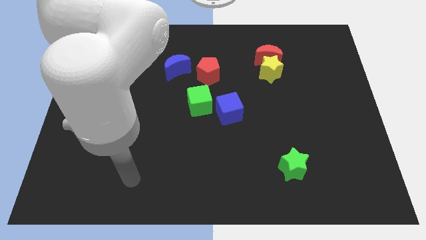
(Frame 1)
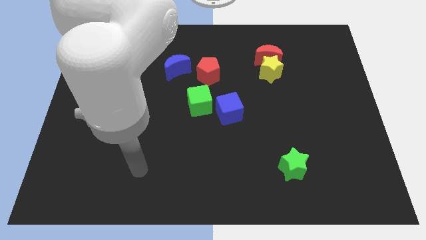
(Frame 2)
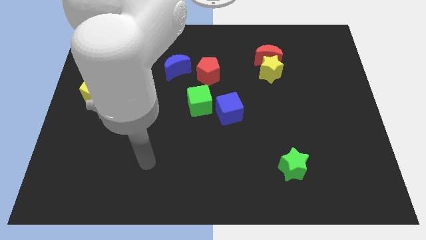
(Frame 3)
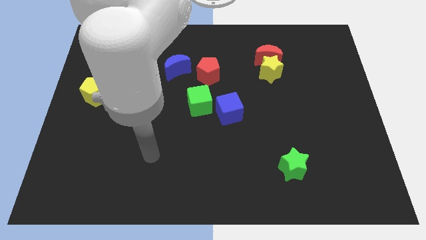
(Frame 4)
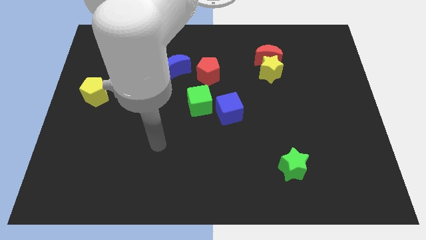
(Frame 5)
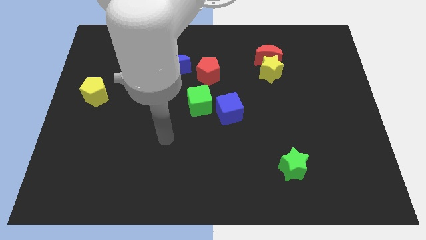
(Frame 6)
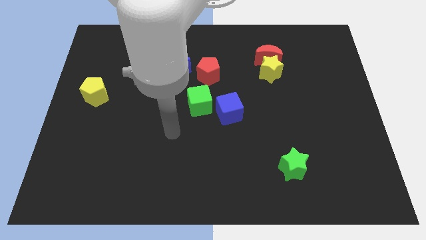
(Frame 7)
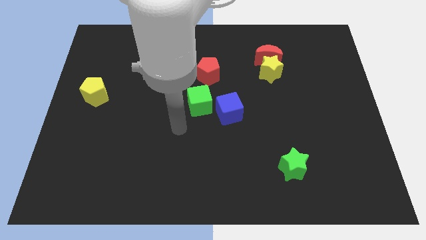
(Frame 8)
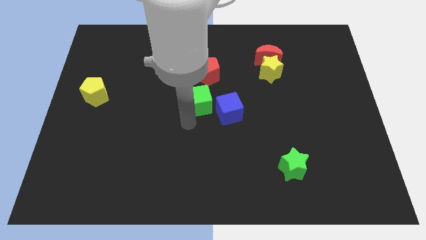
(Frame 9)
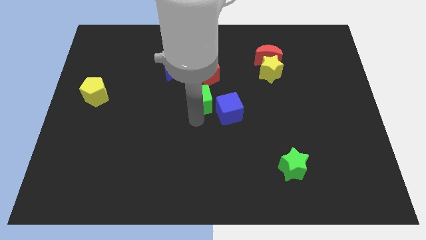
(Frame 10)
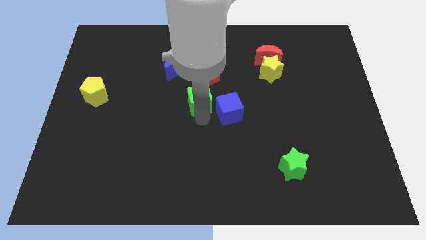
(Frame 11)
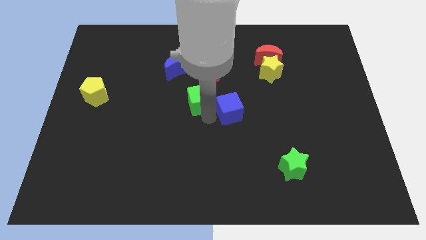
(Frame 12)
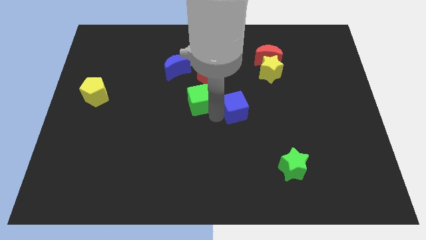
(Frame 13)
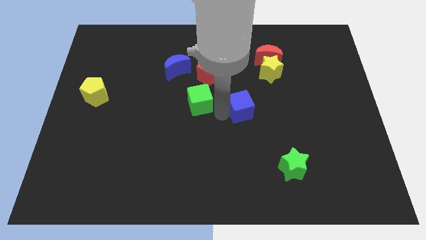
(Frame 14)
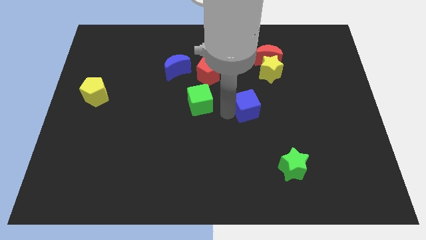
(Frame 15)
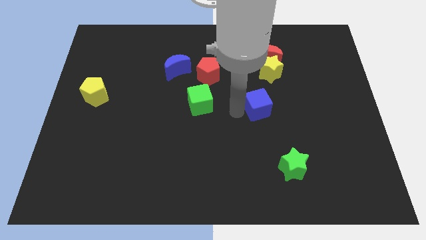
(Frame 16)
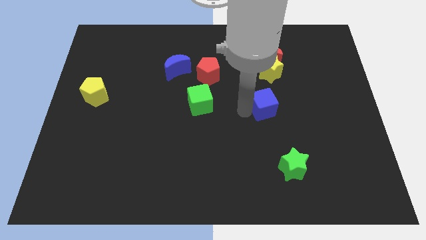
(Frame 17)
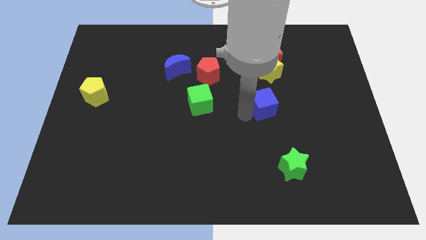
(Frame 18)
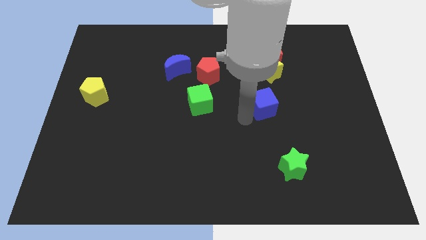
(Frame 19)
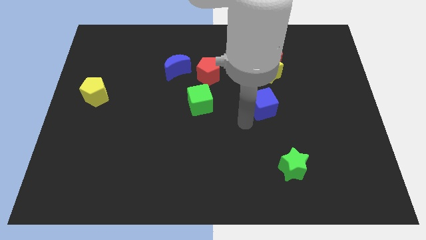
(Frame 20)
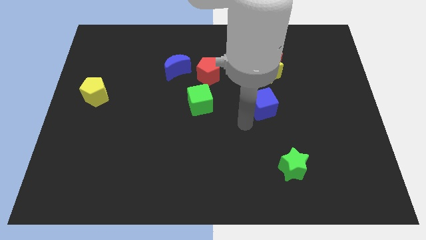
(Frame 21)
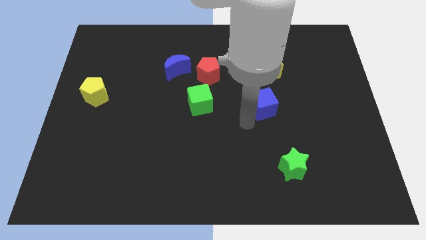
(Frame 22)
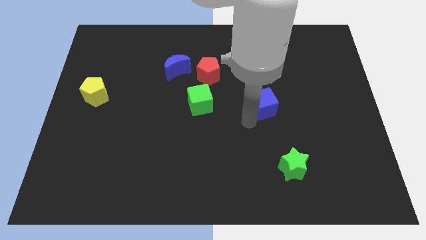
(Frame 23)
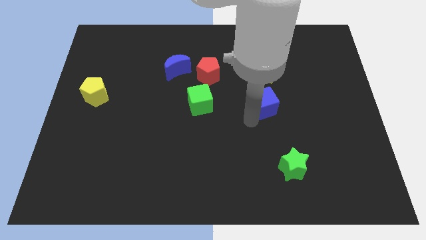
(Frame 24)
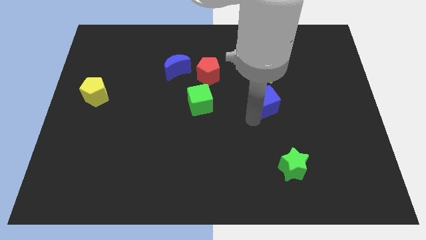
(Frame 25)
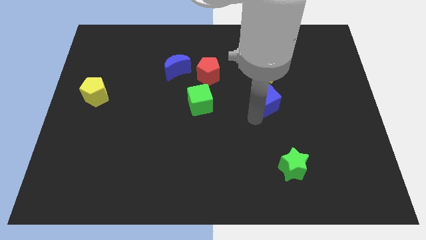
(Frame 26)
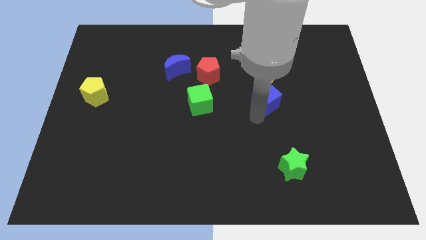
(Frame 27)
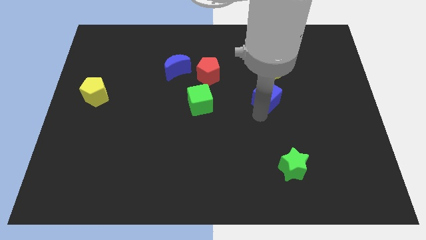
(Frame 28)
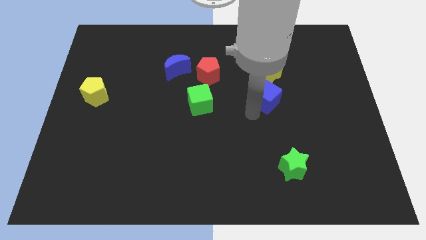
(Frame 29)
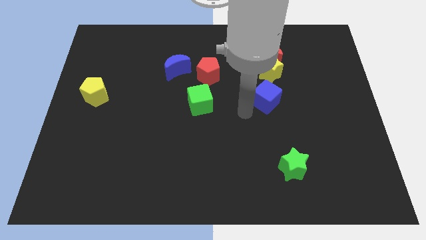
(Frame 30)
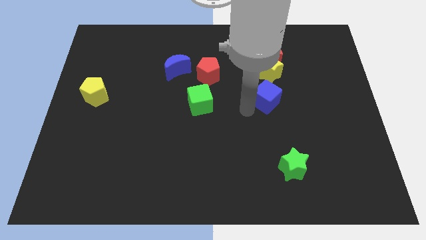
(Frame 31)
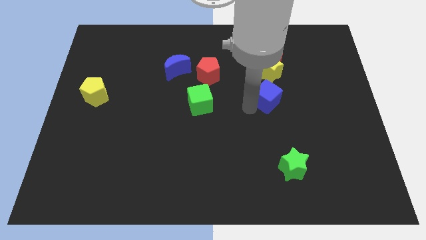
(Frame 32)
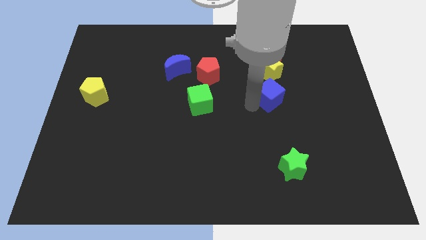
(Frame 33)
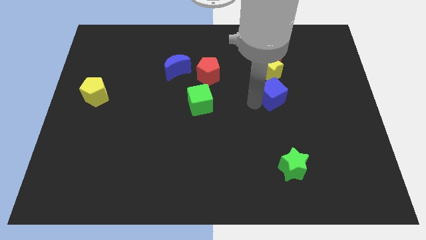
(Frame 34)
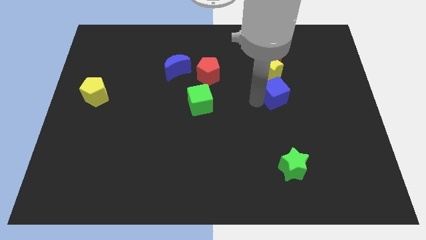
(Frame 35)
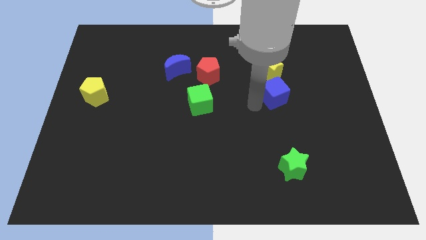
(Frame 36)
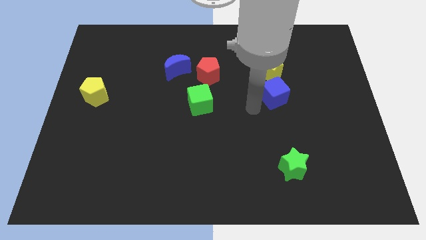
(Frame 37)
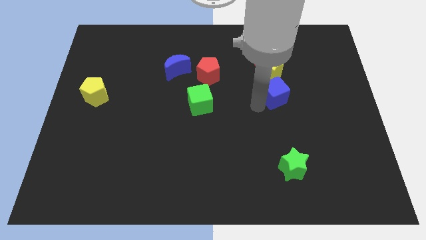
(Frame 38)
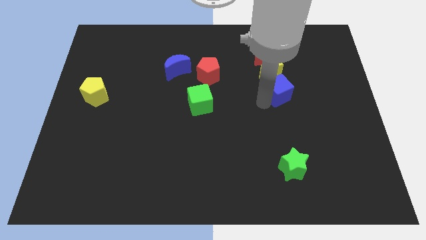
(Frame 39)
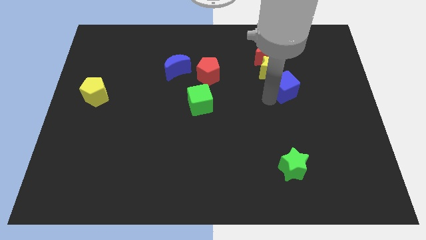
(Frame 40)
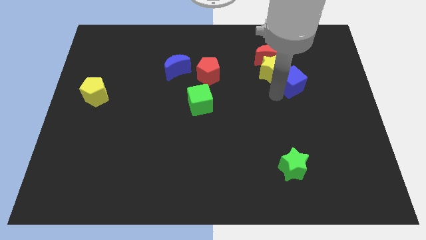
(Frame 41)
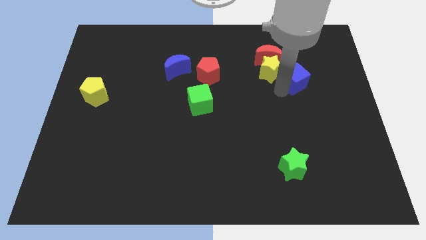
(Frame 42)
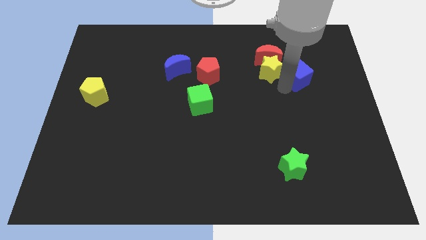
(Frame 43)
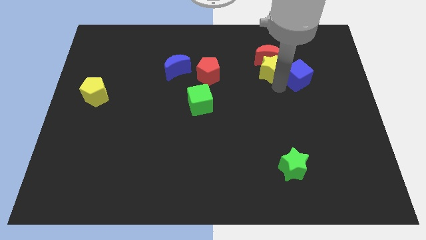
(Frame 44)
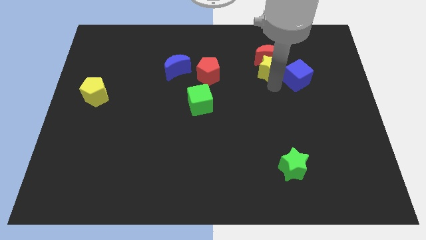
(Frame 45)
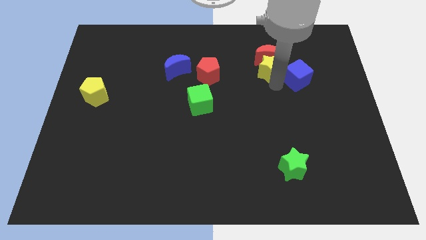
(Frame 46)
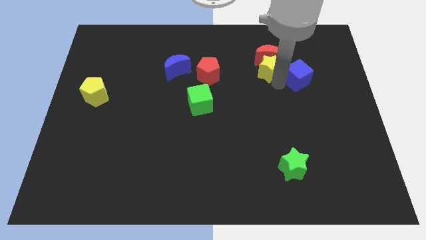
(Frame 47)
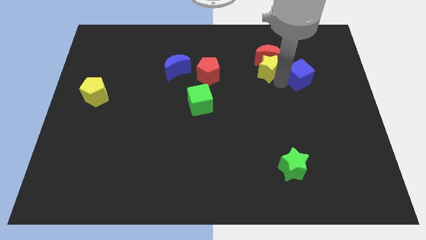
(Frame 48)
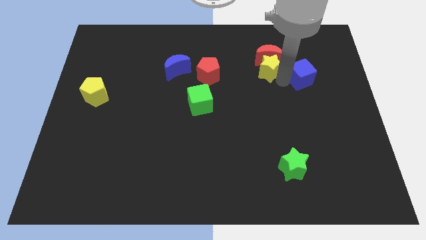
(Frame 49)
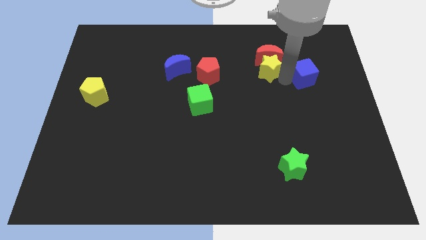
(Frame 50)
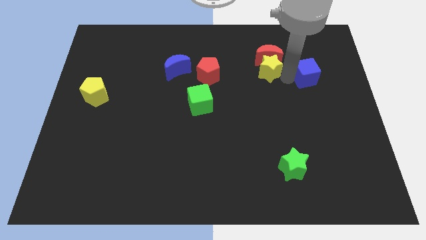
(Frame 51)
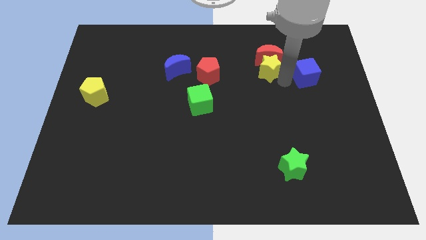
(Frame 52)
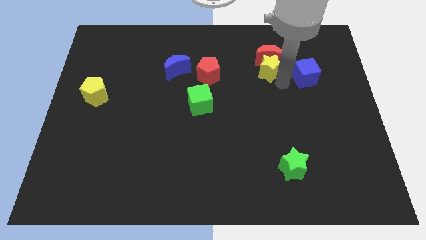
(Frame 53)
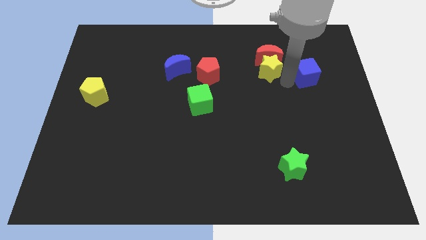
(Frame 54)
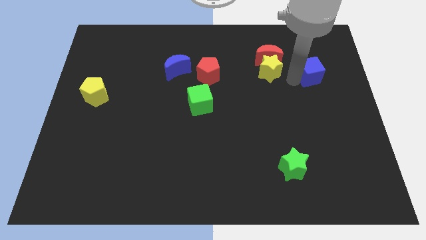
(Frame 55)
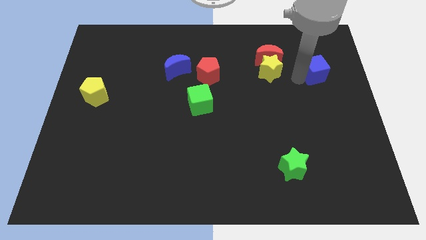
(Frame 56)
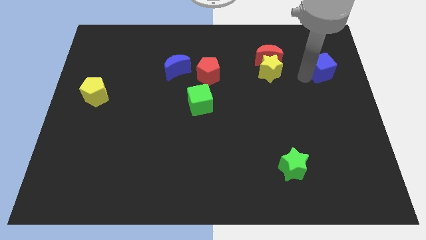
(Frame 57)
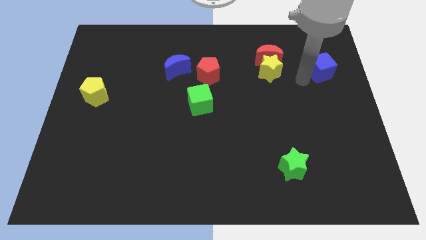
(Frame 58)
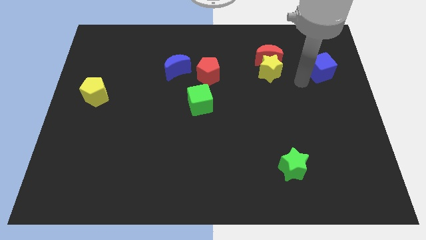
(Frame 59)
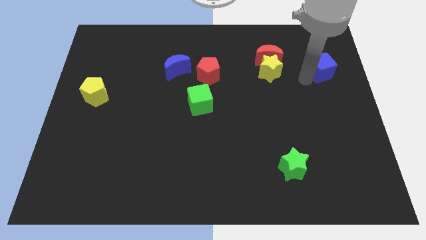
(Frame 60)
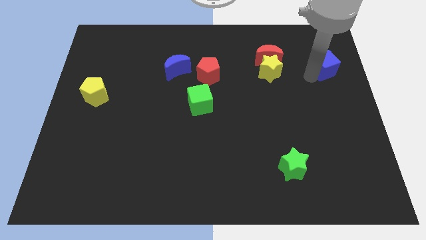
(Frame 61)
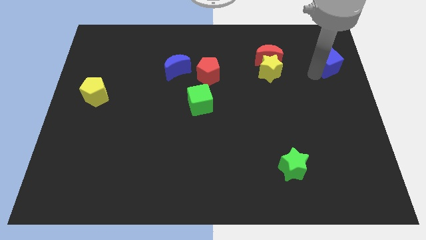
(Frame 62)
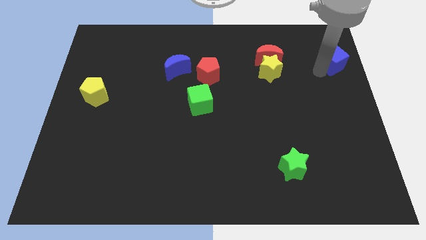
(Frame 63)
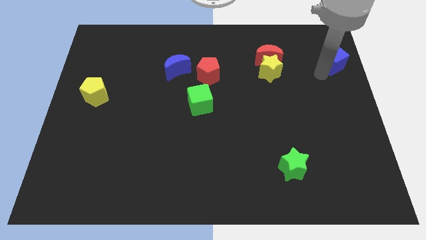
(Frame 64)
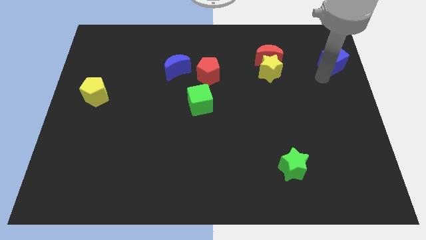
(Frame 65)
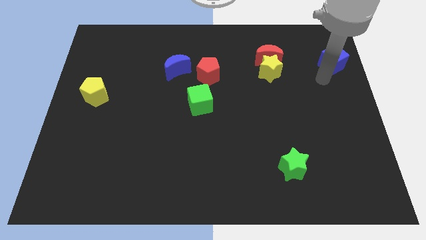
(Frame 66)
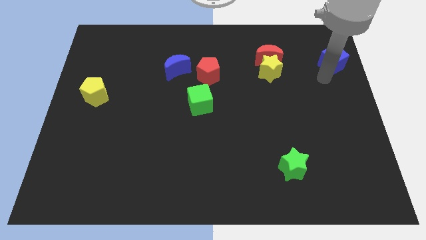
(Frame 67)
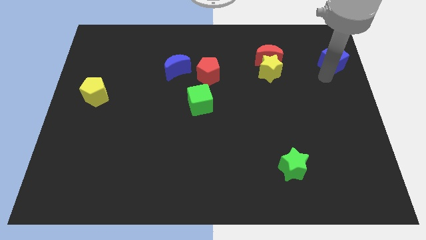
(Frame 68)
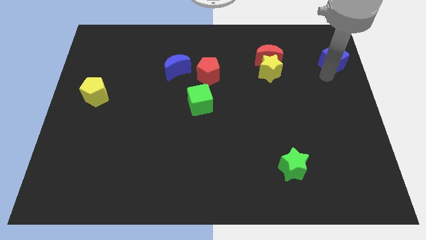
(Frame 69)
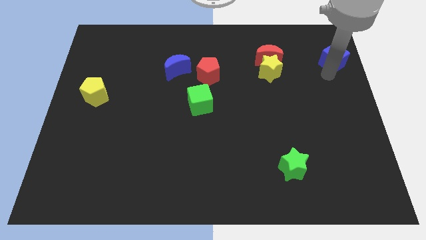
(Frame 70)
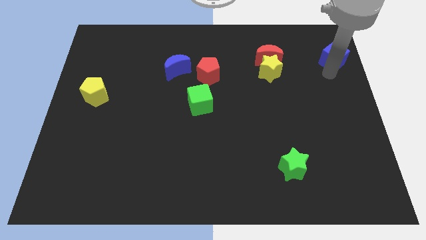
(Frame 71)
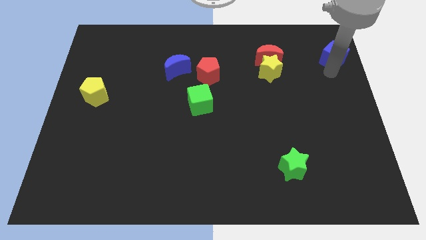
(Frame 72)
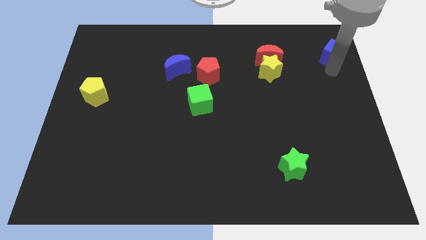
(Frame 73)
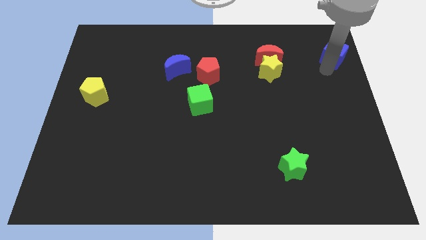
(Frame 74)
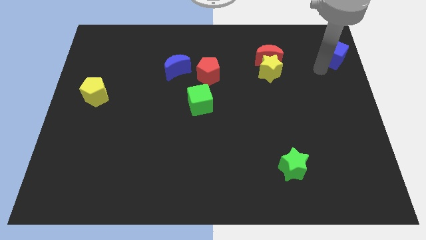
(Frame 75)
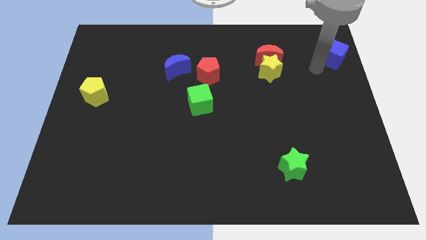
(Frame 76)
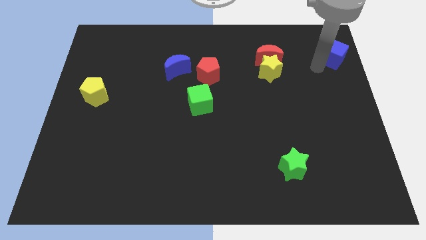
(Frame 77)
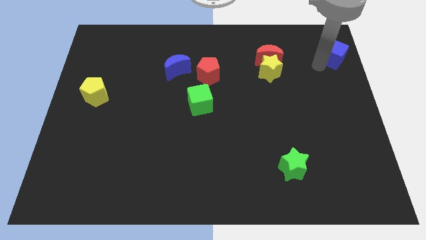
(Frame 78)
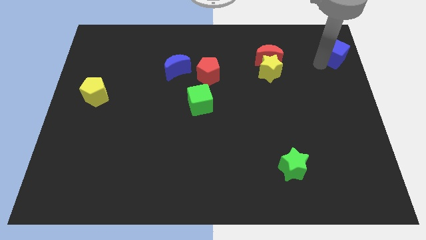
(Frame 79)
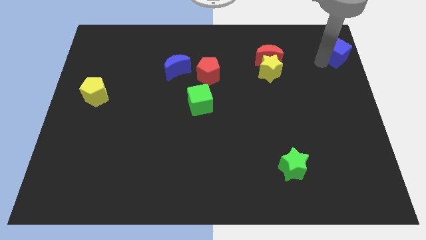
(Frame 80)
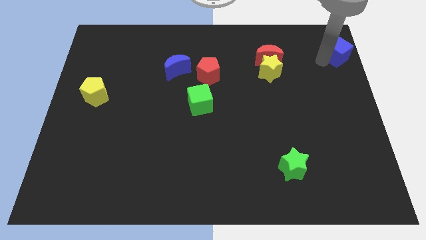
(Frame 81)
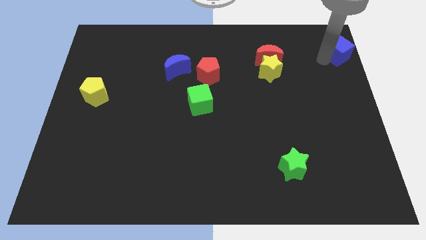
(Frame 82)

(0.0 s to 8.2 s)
move the blue cube to the top right of the board

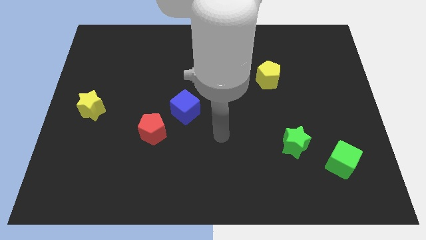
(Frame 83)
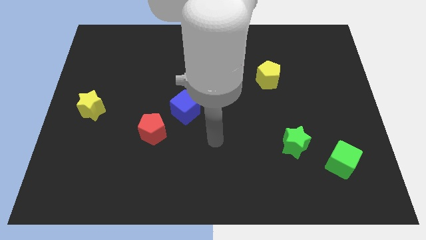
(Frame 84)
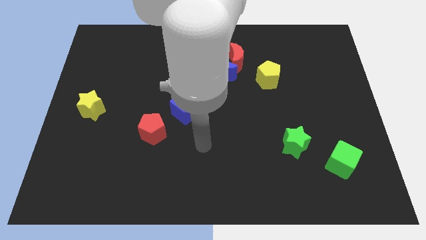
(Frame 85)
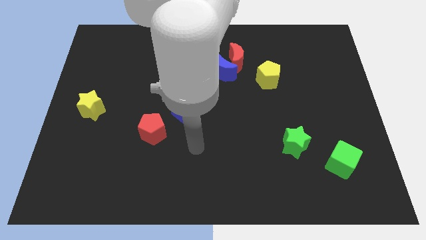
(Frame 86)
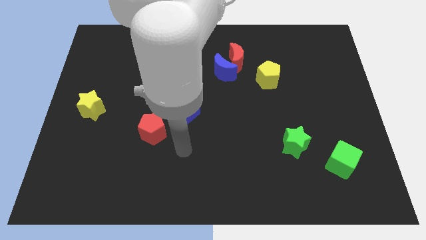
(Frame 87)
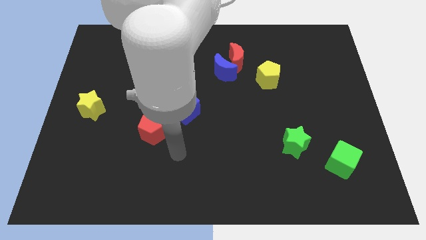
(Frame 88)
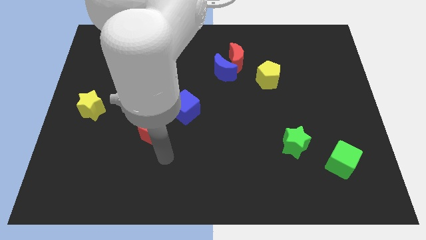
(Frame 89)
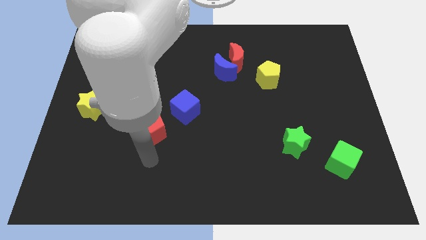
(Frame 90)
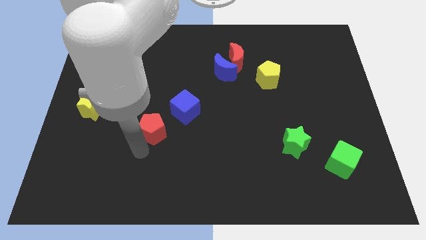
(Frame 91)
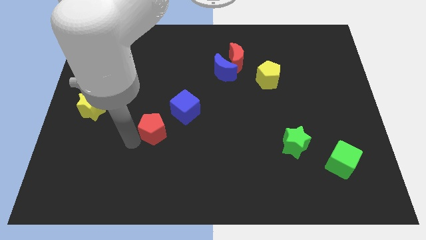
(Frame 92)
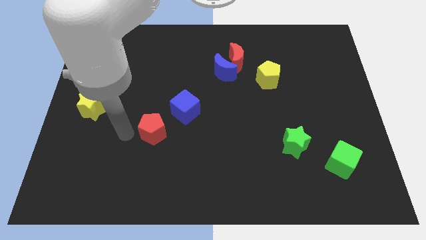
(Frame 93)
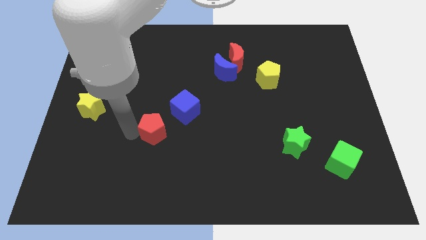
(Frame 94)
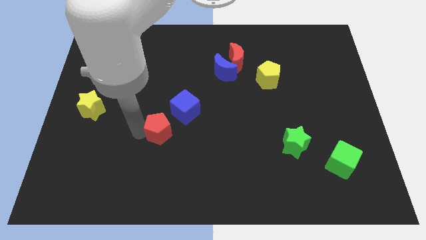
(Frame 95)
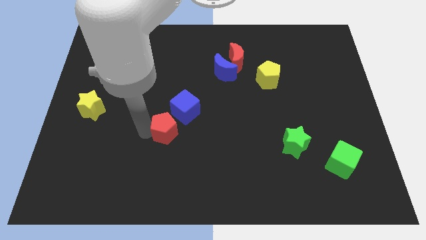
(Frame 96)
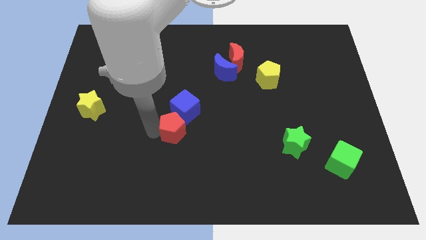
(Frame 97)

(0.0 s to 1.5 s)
slide the red pentagon to the middle
